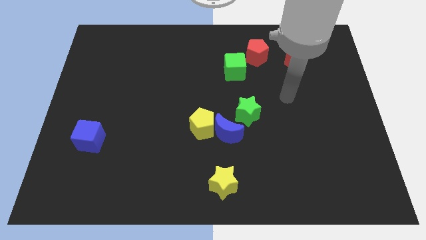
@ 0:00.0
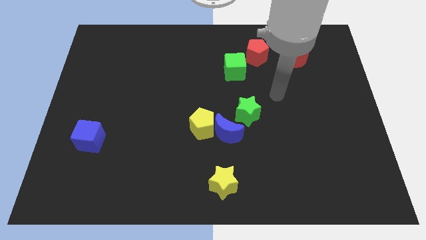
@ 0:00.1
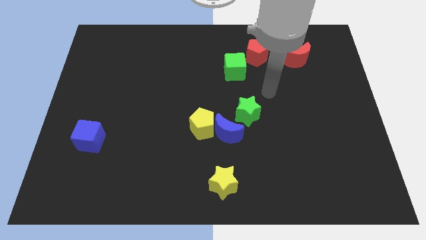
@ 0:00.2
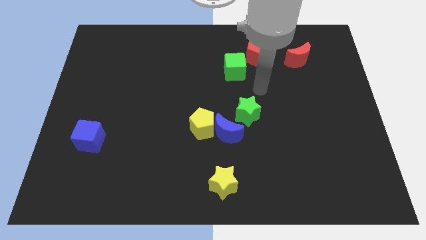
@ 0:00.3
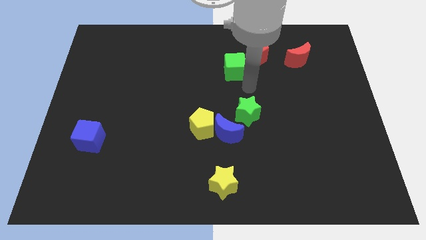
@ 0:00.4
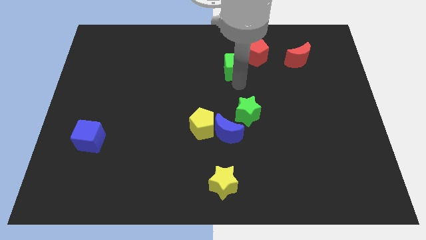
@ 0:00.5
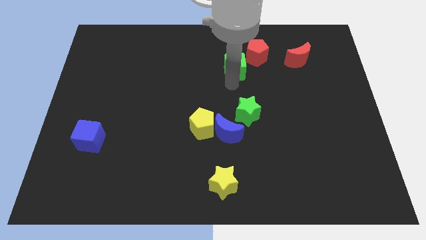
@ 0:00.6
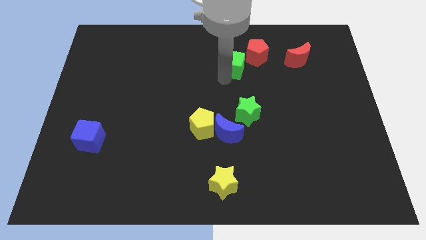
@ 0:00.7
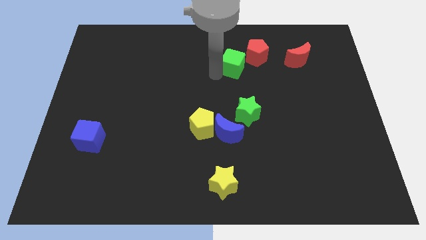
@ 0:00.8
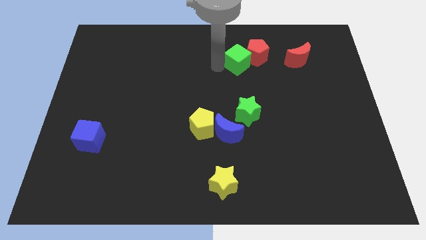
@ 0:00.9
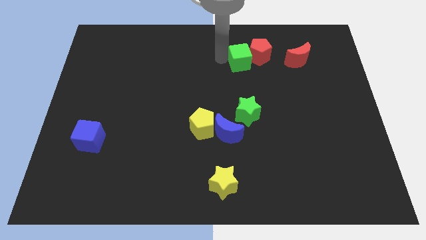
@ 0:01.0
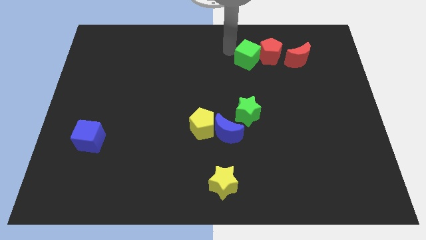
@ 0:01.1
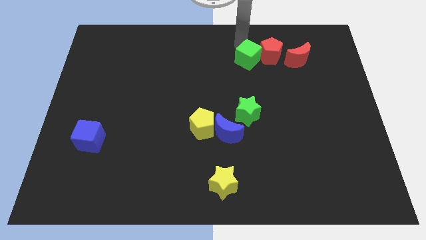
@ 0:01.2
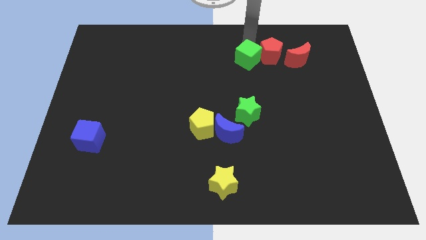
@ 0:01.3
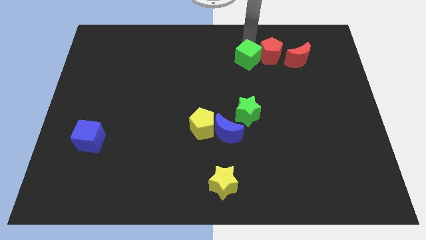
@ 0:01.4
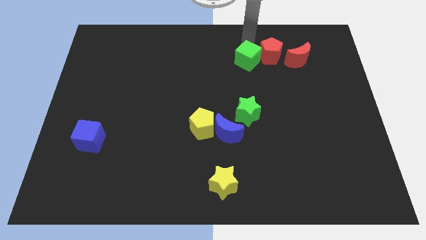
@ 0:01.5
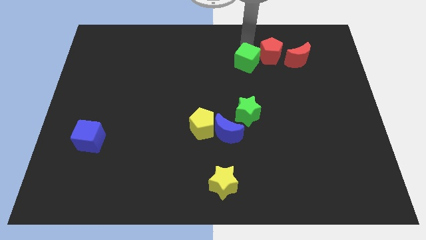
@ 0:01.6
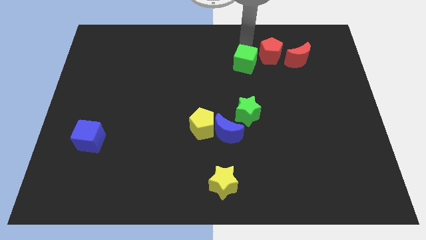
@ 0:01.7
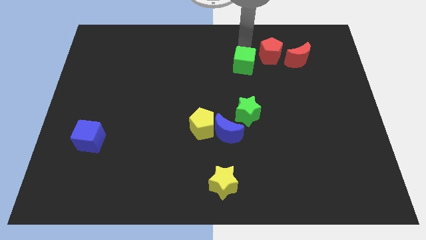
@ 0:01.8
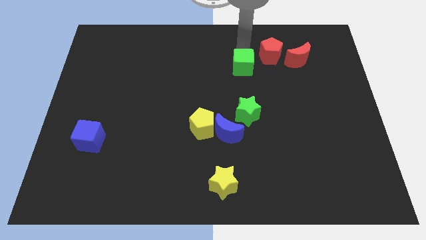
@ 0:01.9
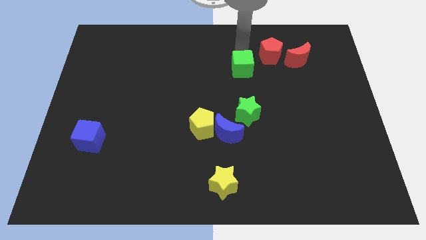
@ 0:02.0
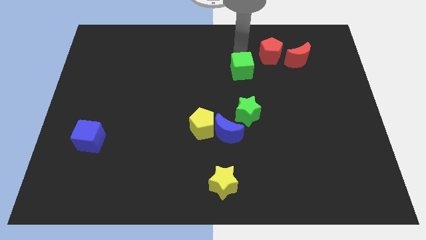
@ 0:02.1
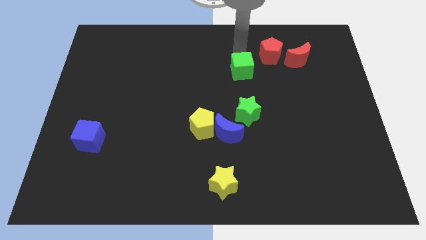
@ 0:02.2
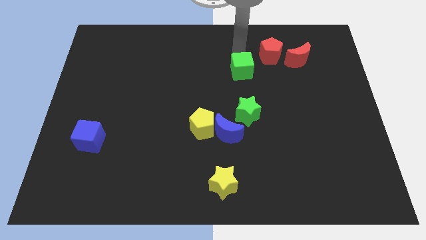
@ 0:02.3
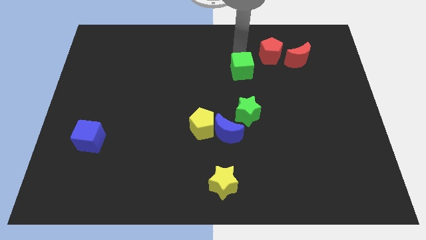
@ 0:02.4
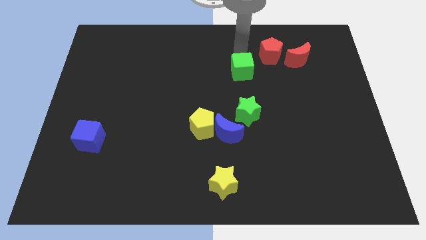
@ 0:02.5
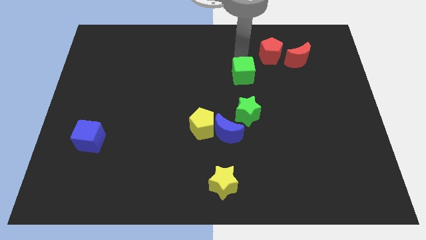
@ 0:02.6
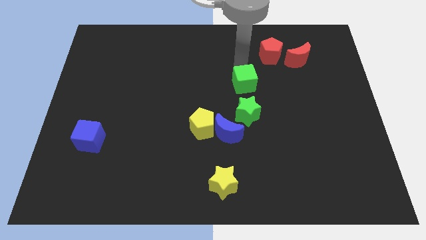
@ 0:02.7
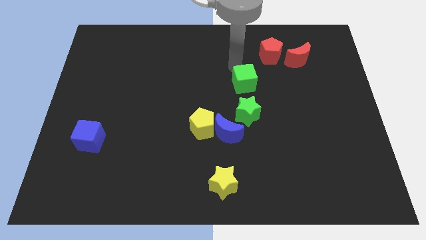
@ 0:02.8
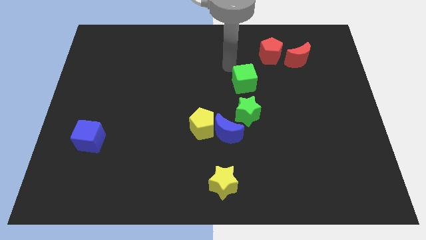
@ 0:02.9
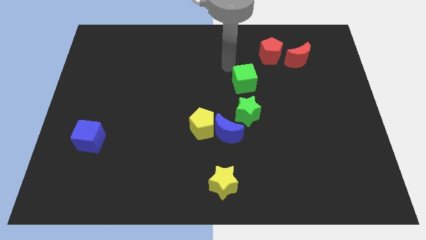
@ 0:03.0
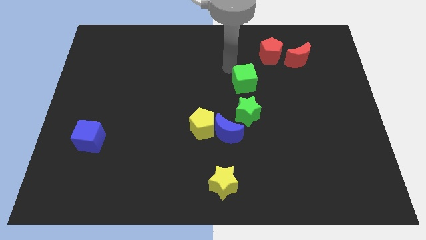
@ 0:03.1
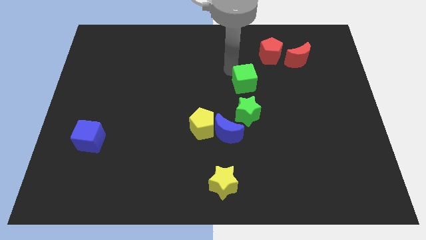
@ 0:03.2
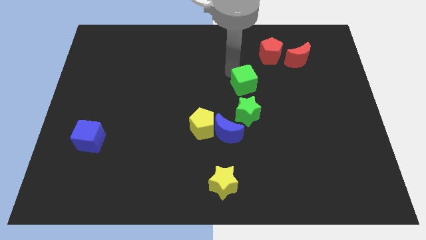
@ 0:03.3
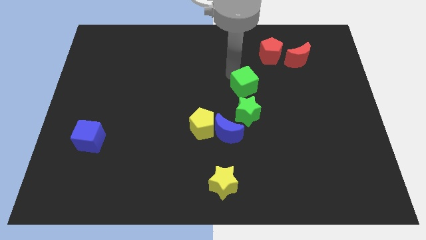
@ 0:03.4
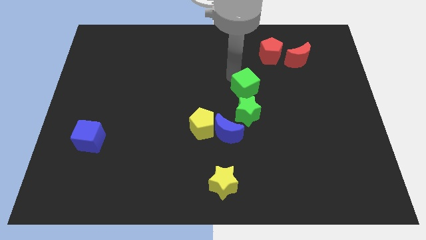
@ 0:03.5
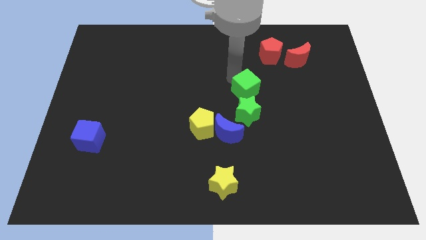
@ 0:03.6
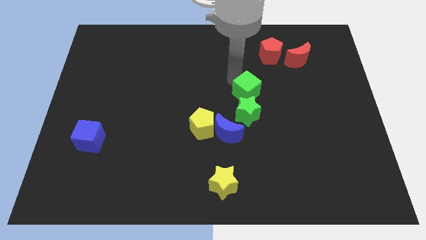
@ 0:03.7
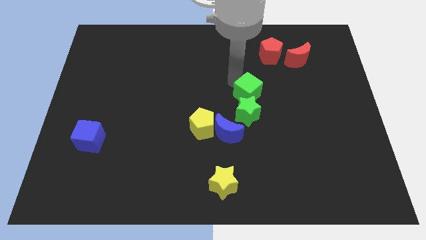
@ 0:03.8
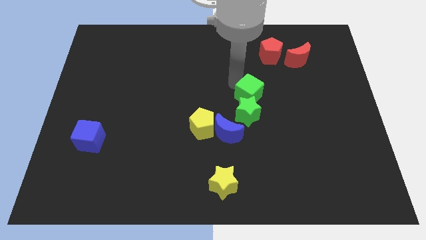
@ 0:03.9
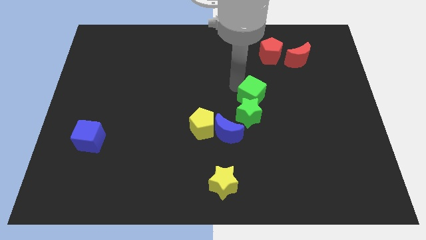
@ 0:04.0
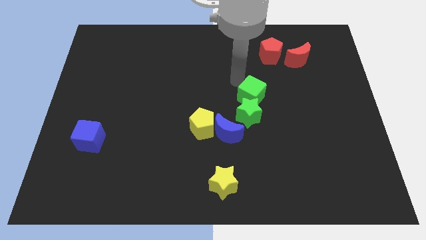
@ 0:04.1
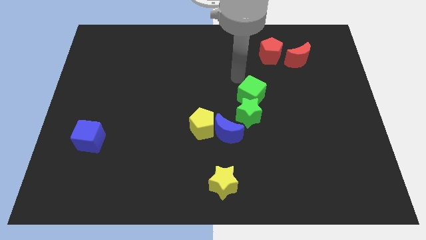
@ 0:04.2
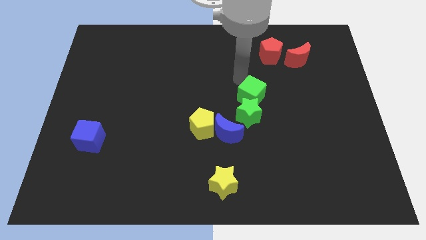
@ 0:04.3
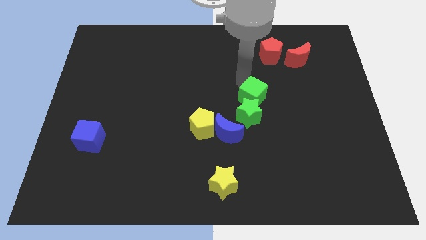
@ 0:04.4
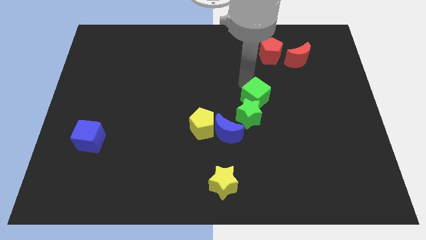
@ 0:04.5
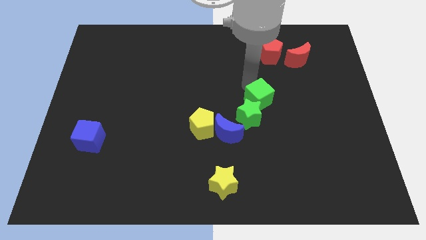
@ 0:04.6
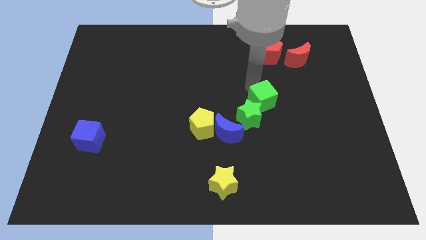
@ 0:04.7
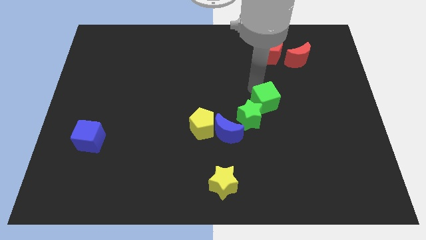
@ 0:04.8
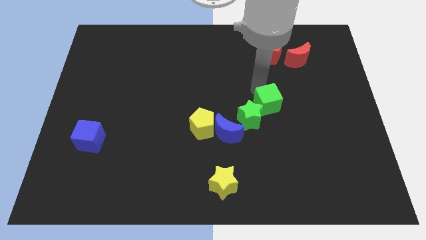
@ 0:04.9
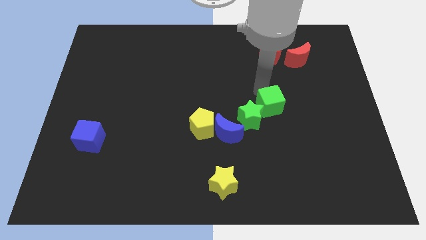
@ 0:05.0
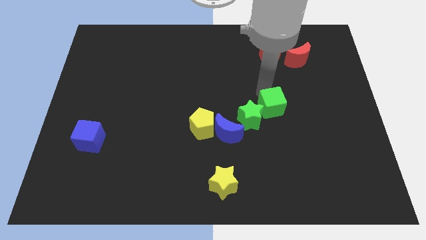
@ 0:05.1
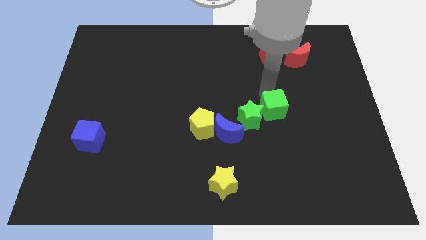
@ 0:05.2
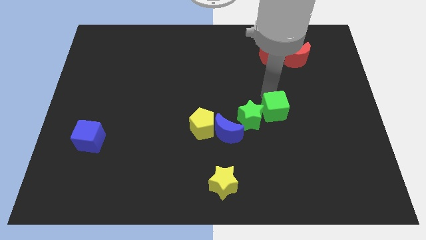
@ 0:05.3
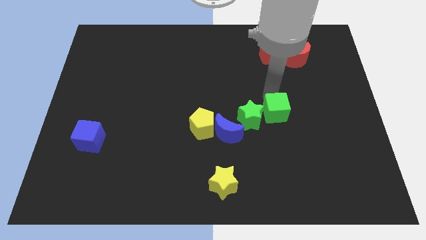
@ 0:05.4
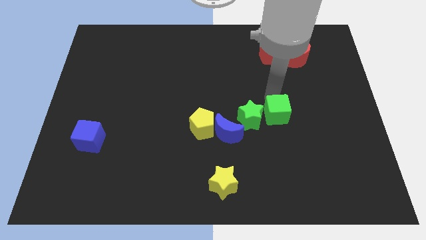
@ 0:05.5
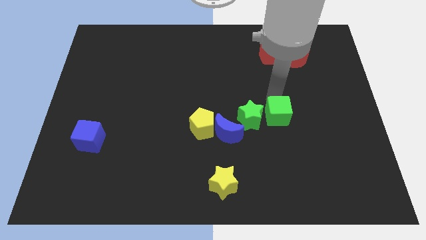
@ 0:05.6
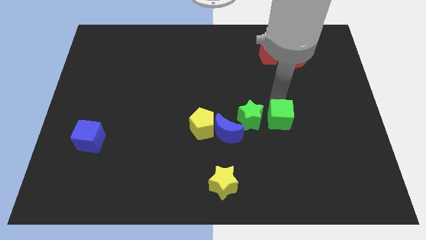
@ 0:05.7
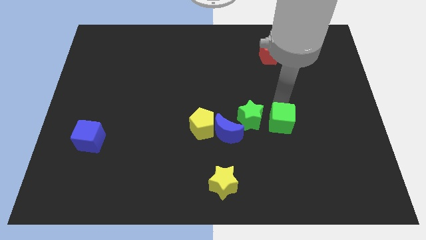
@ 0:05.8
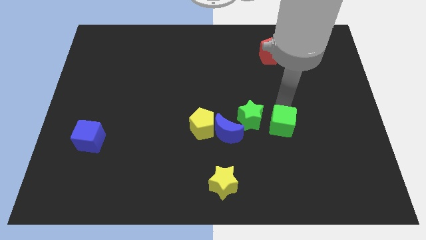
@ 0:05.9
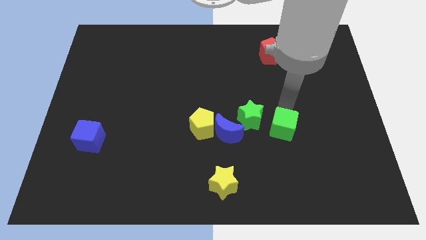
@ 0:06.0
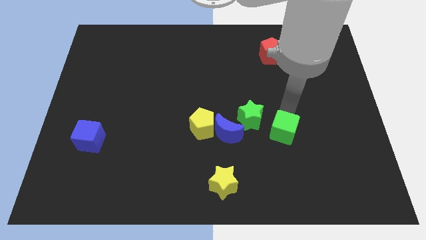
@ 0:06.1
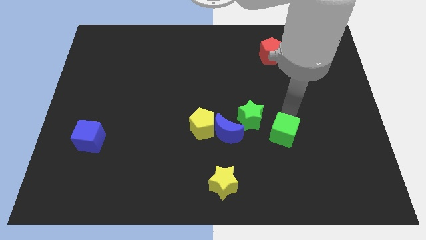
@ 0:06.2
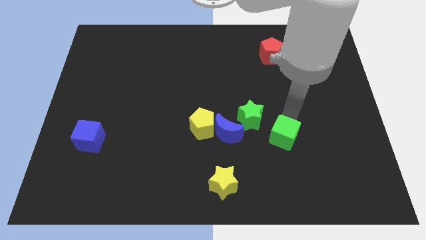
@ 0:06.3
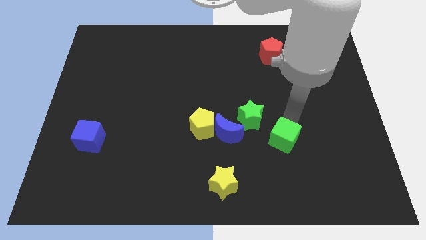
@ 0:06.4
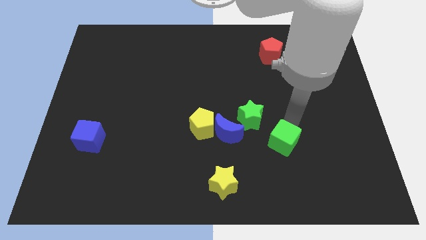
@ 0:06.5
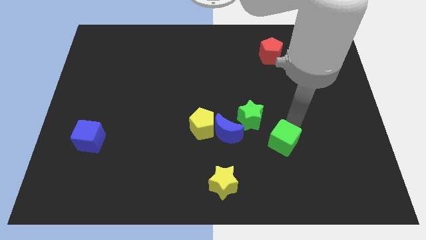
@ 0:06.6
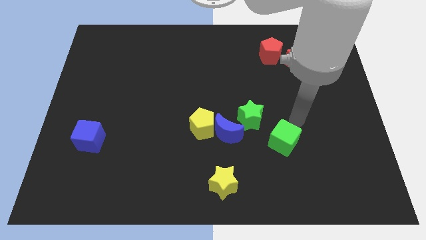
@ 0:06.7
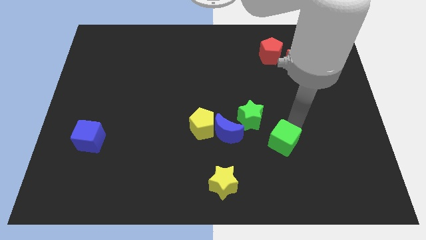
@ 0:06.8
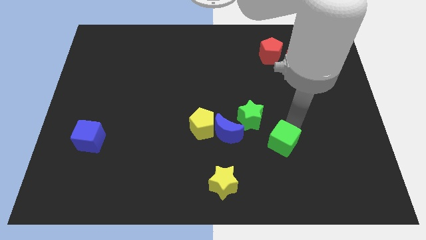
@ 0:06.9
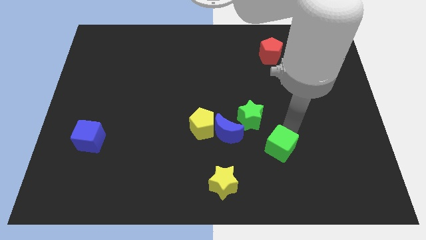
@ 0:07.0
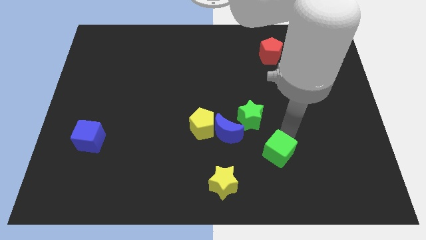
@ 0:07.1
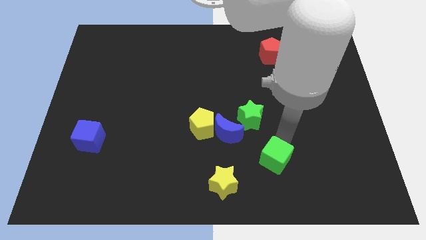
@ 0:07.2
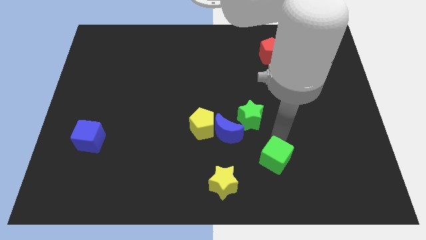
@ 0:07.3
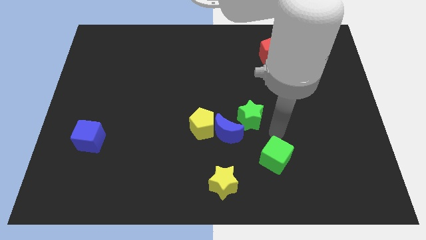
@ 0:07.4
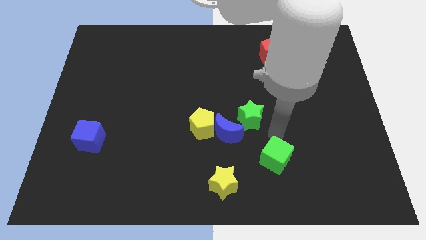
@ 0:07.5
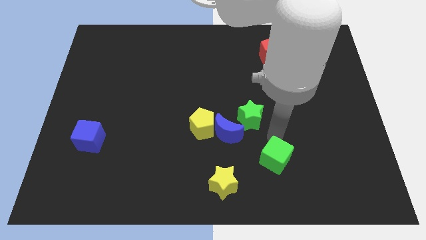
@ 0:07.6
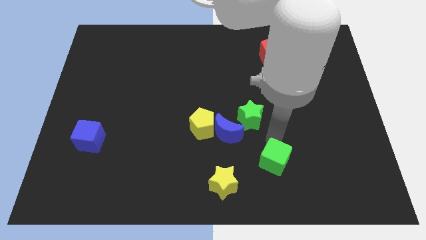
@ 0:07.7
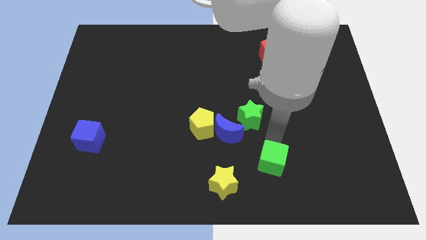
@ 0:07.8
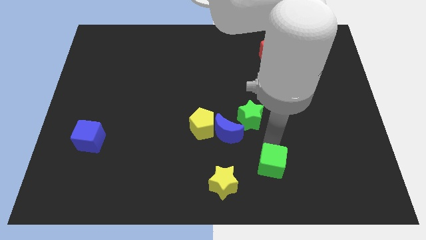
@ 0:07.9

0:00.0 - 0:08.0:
put the green cube right of the yellow star
